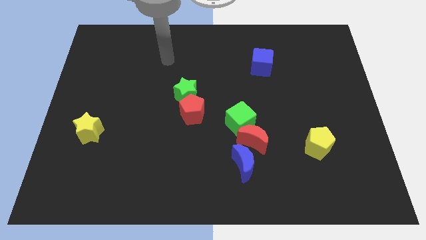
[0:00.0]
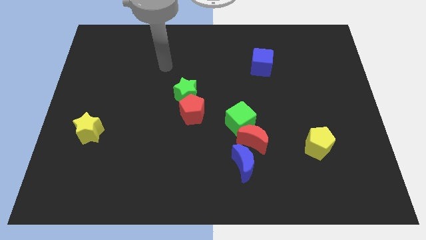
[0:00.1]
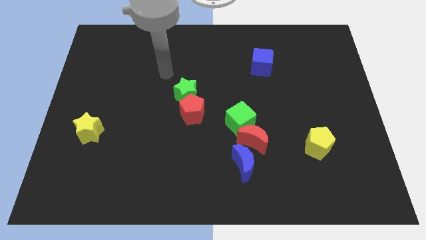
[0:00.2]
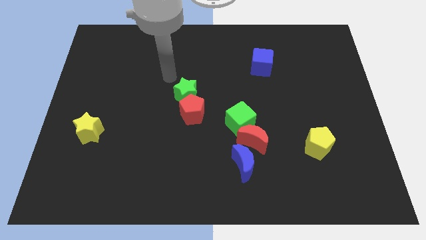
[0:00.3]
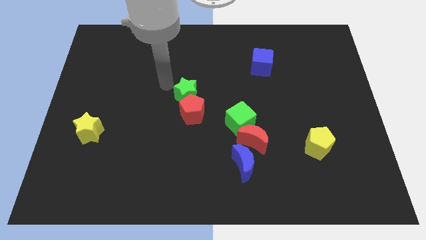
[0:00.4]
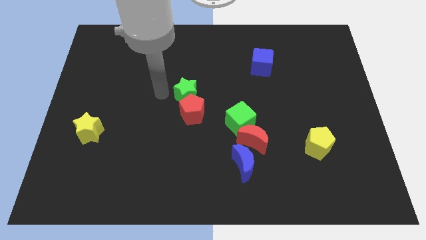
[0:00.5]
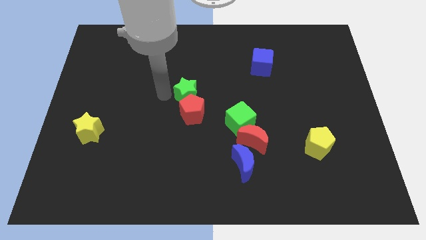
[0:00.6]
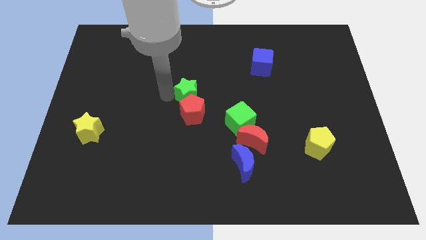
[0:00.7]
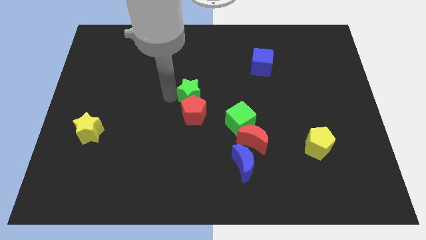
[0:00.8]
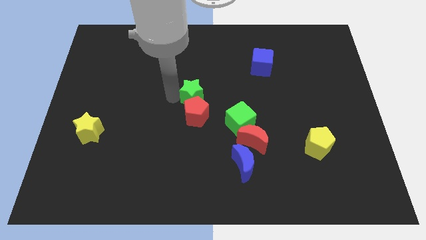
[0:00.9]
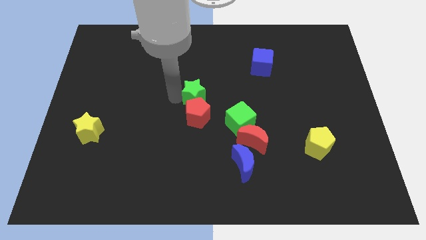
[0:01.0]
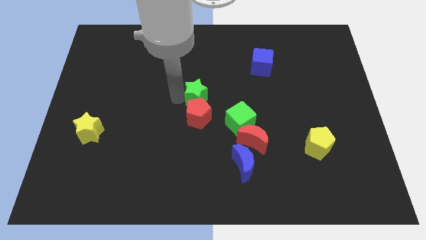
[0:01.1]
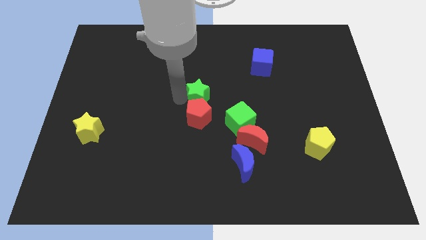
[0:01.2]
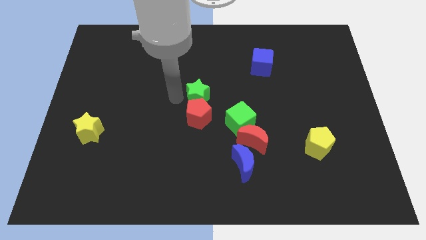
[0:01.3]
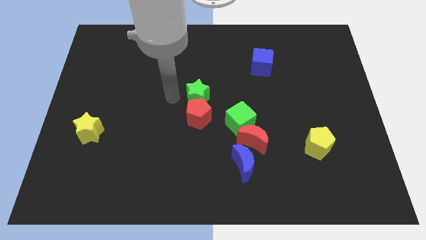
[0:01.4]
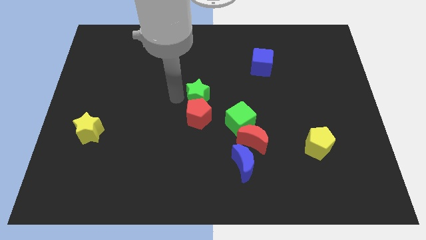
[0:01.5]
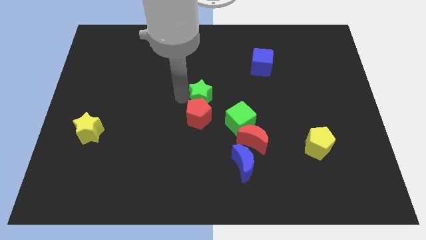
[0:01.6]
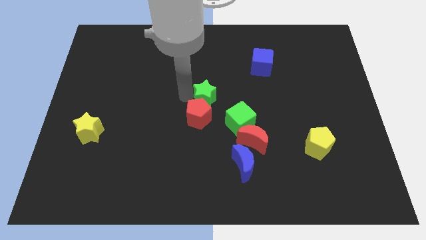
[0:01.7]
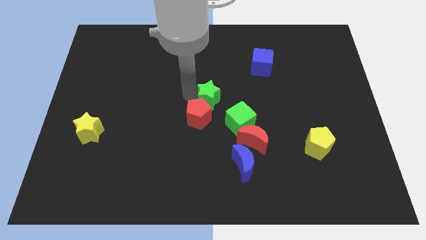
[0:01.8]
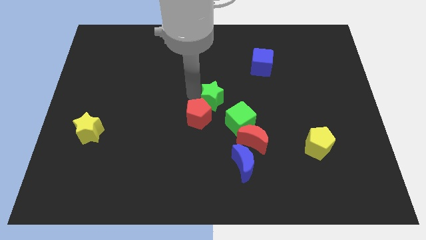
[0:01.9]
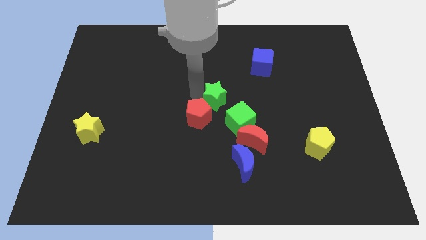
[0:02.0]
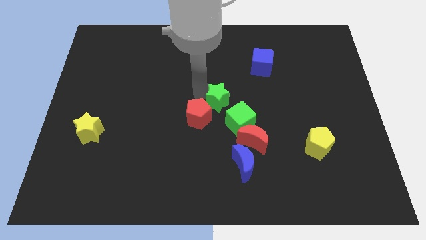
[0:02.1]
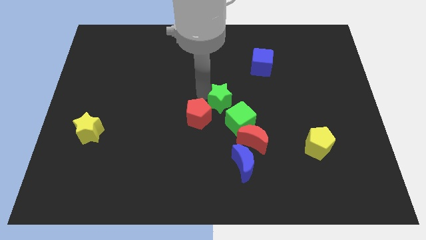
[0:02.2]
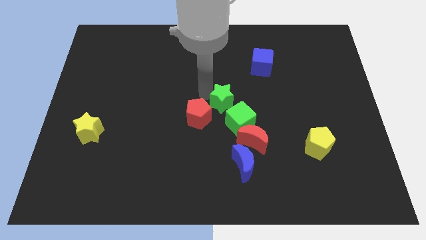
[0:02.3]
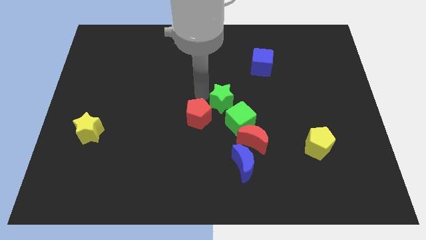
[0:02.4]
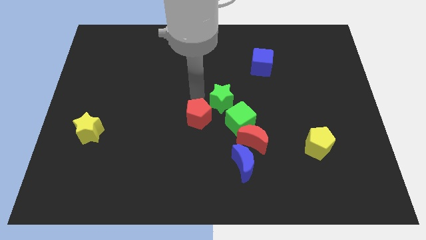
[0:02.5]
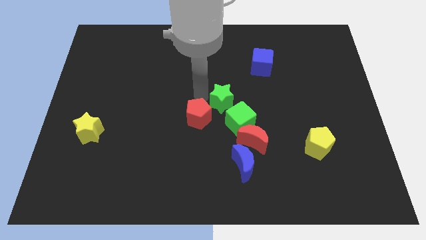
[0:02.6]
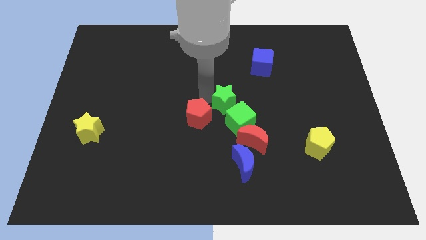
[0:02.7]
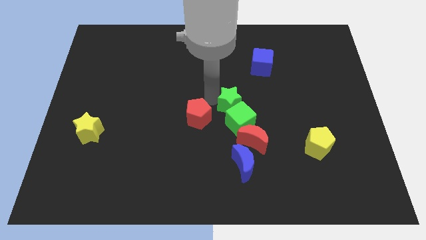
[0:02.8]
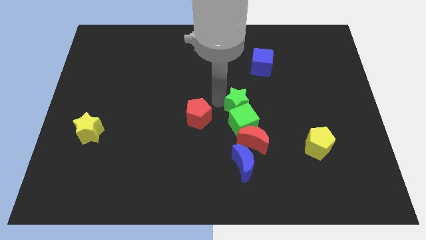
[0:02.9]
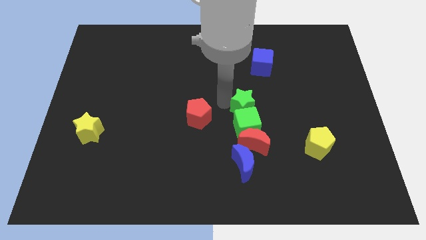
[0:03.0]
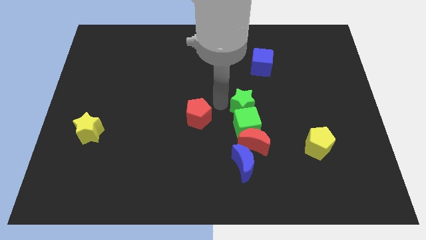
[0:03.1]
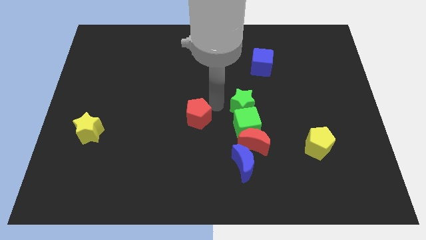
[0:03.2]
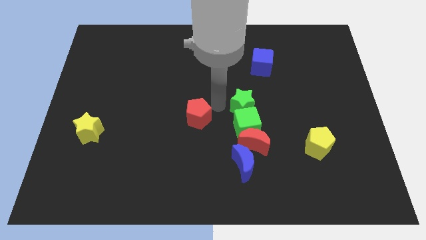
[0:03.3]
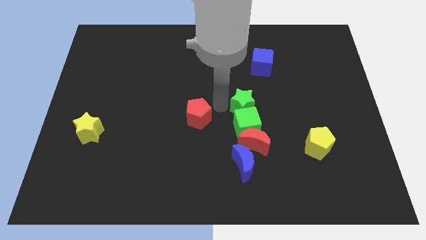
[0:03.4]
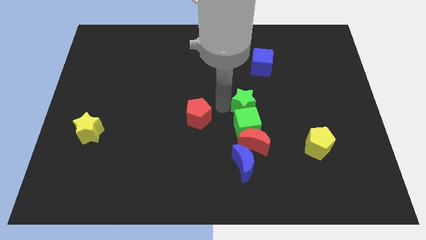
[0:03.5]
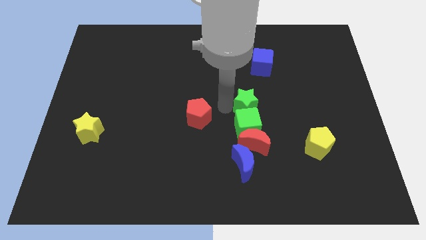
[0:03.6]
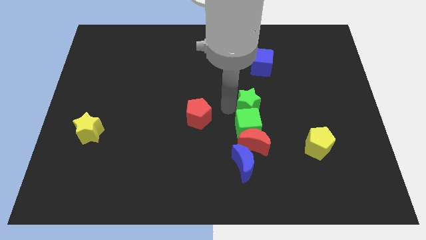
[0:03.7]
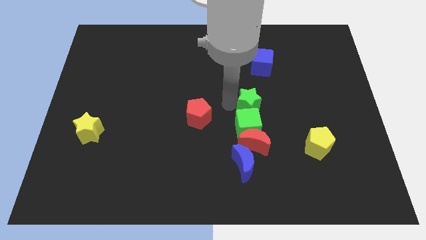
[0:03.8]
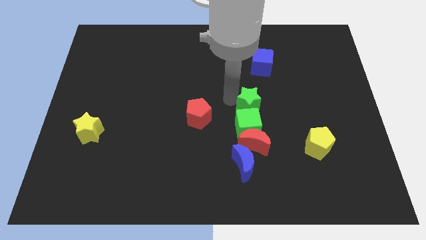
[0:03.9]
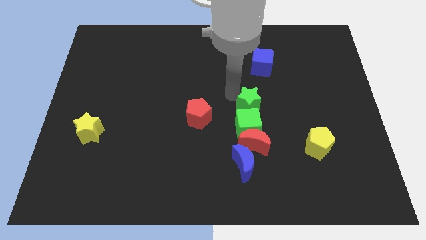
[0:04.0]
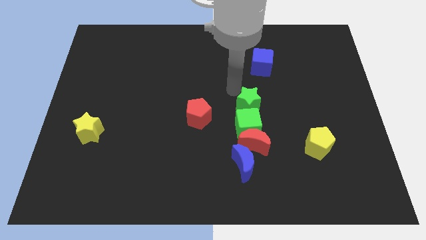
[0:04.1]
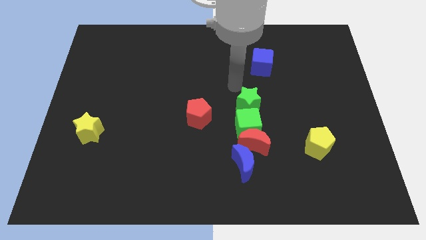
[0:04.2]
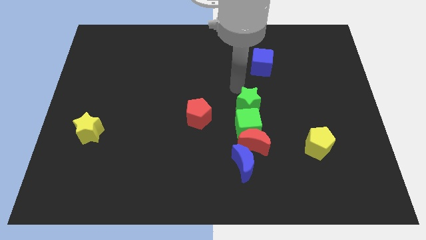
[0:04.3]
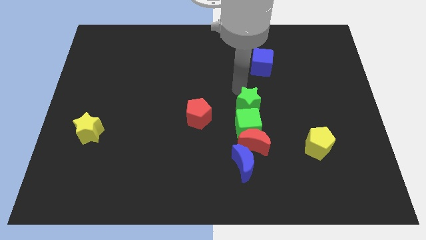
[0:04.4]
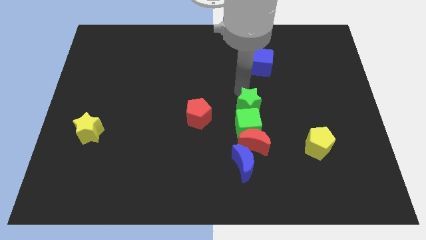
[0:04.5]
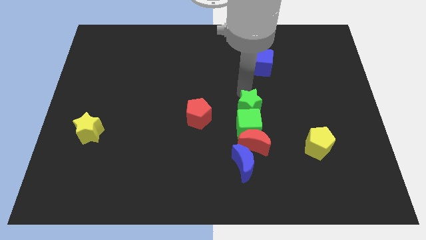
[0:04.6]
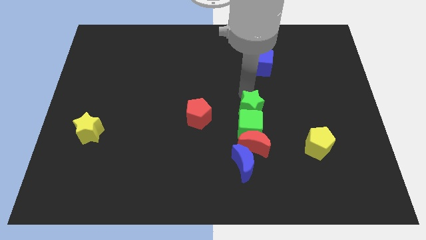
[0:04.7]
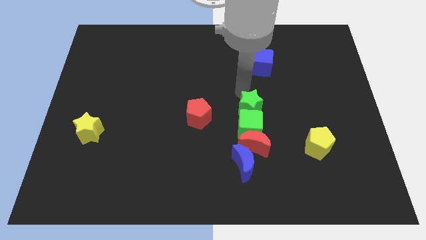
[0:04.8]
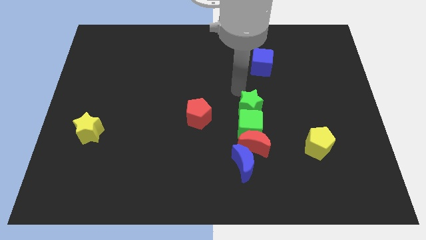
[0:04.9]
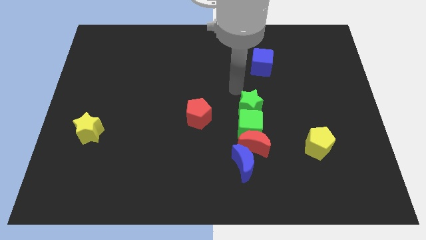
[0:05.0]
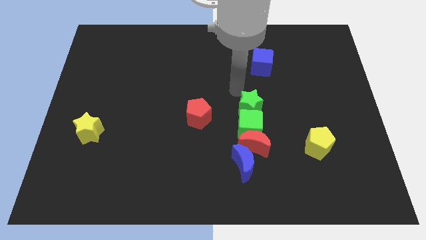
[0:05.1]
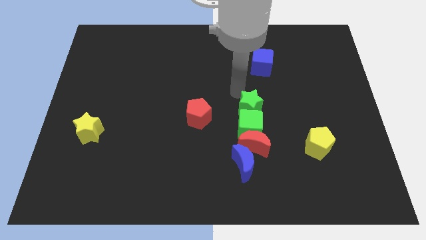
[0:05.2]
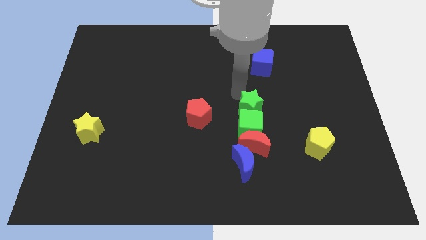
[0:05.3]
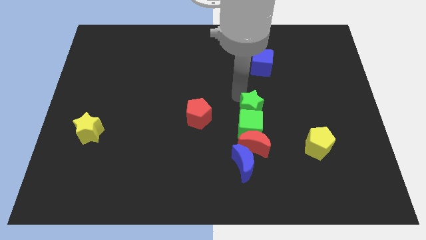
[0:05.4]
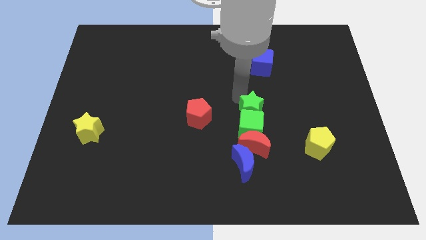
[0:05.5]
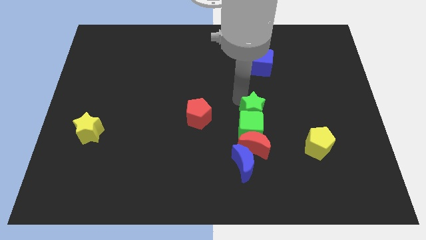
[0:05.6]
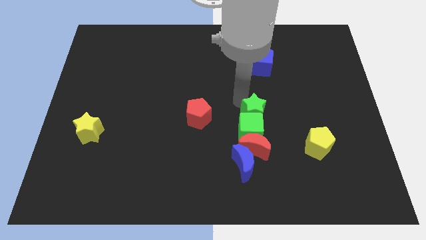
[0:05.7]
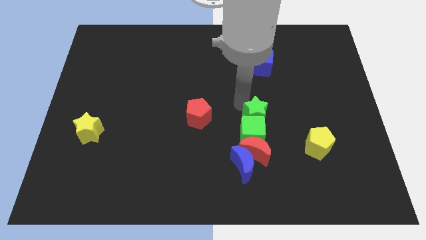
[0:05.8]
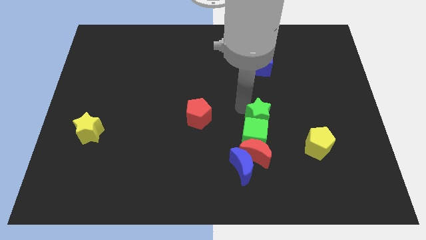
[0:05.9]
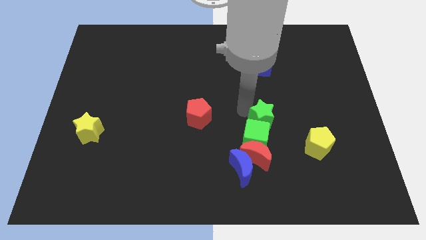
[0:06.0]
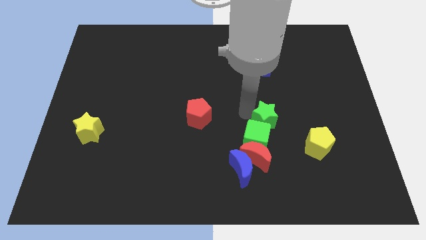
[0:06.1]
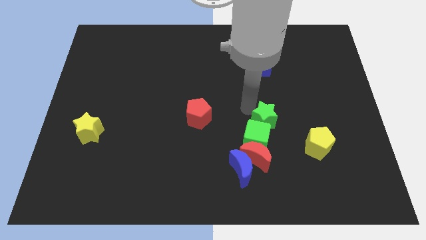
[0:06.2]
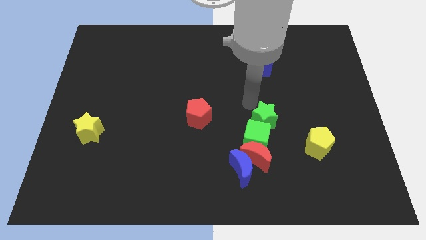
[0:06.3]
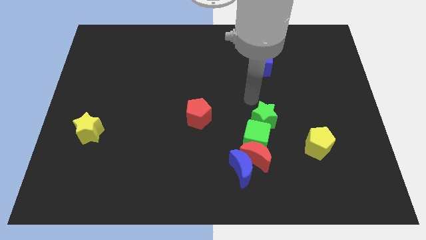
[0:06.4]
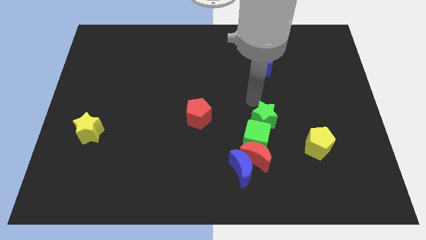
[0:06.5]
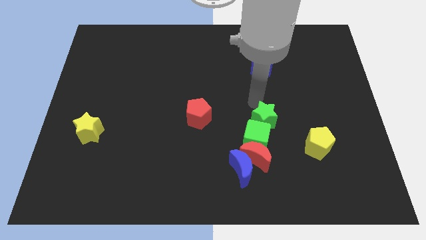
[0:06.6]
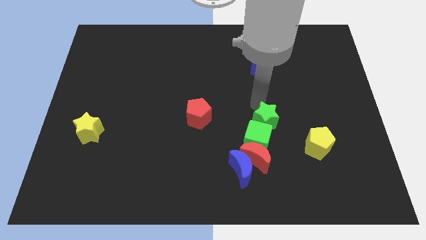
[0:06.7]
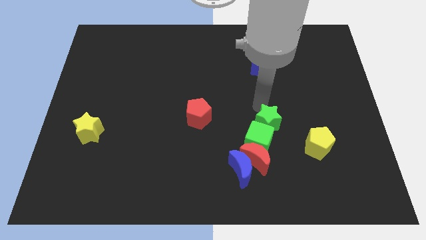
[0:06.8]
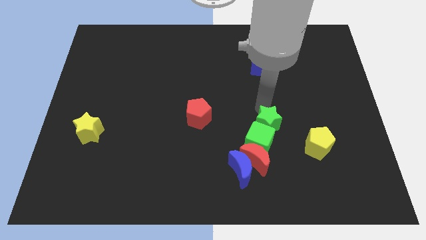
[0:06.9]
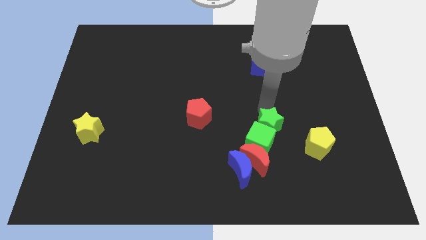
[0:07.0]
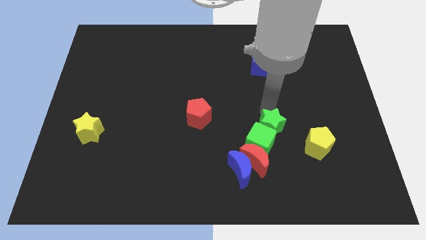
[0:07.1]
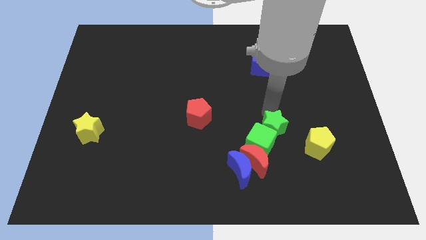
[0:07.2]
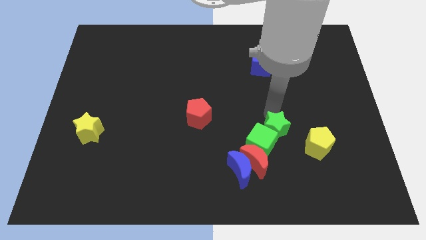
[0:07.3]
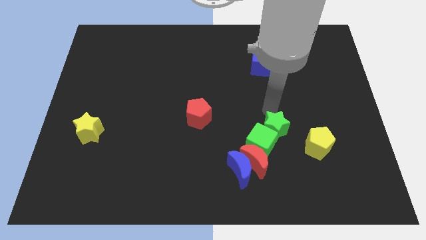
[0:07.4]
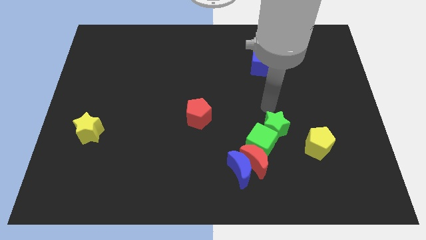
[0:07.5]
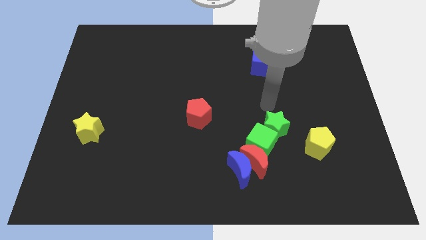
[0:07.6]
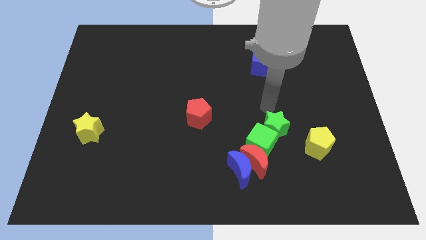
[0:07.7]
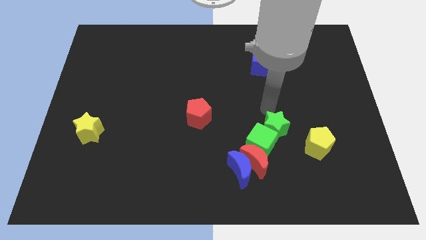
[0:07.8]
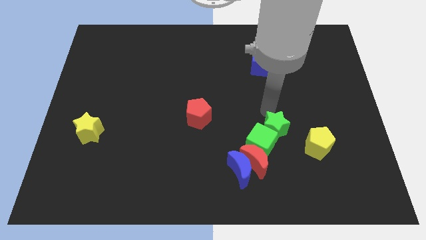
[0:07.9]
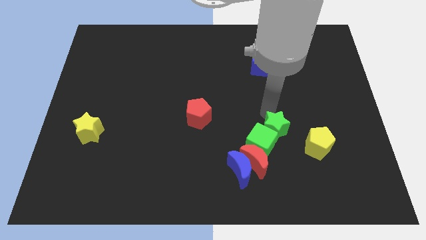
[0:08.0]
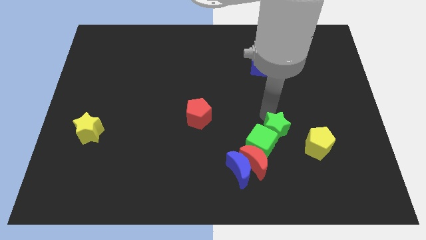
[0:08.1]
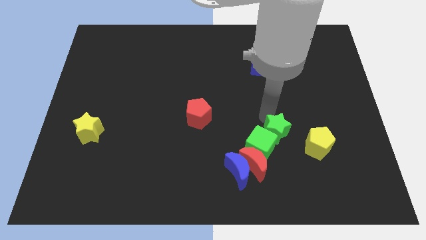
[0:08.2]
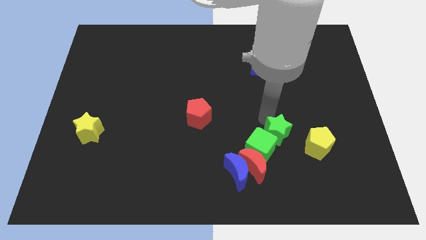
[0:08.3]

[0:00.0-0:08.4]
slide the green star down and to the right
